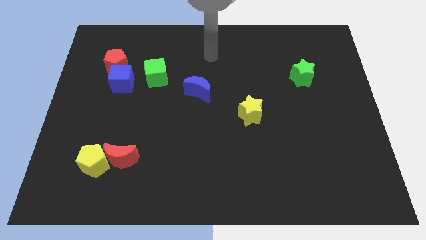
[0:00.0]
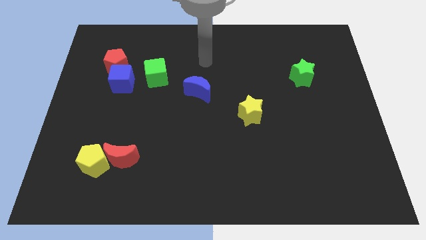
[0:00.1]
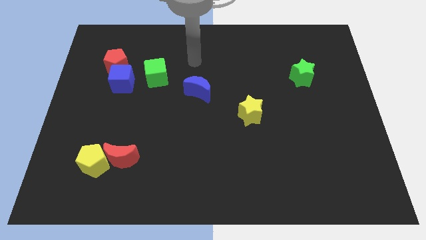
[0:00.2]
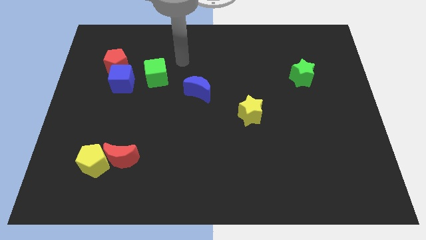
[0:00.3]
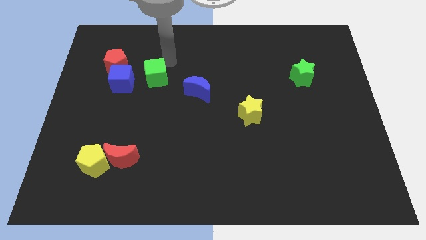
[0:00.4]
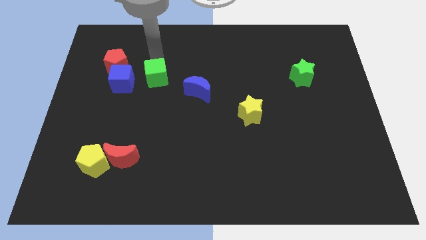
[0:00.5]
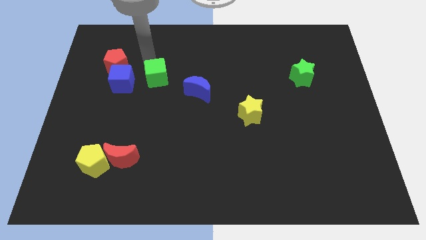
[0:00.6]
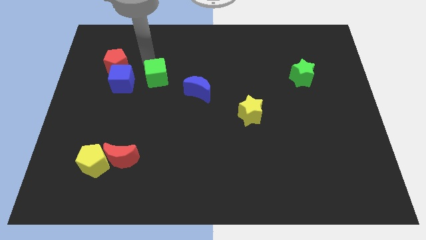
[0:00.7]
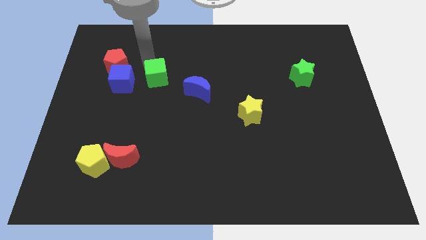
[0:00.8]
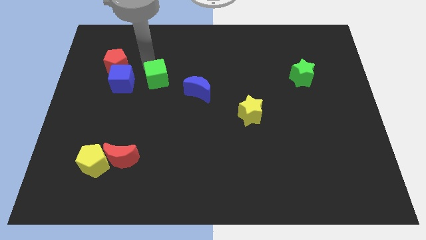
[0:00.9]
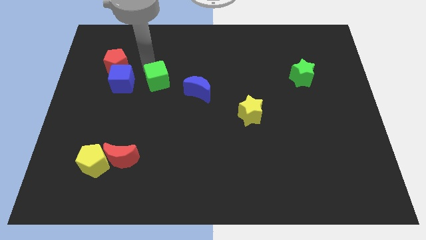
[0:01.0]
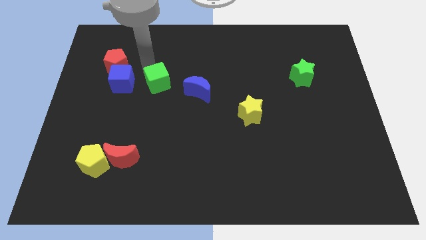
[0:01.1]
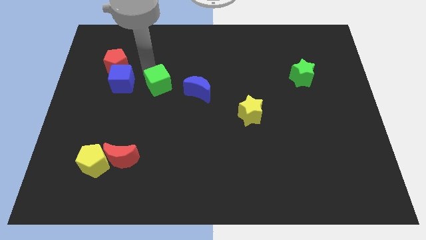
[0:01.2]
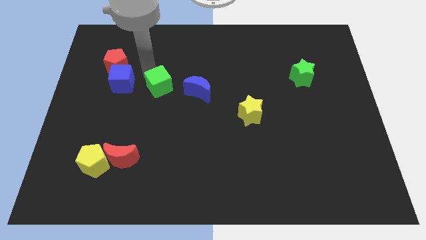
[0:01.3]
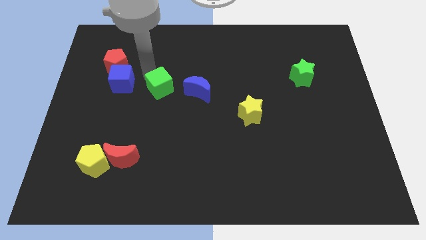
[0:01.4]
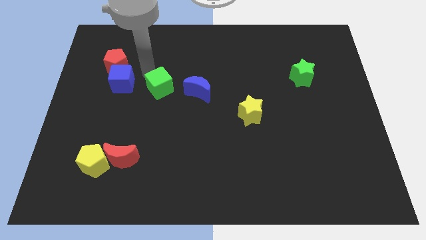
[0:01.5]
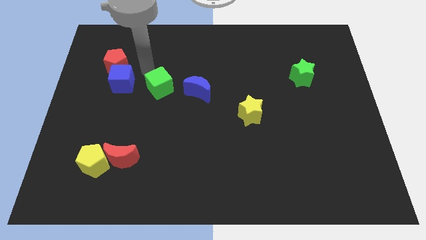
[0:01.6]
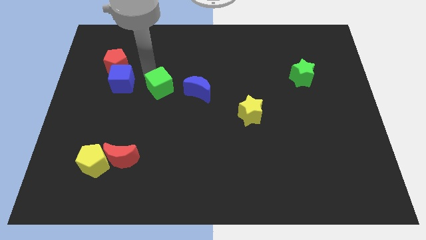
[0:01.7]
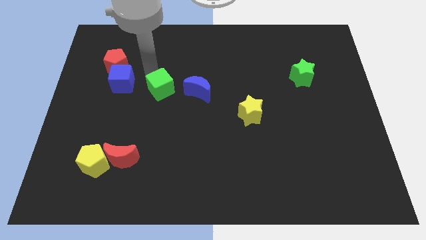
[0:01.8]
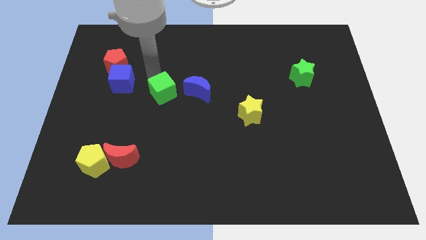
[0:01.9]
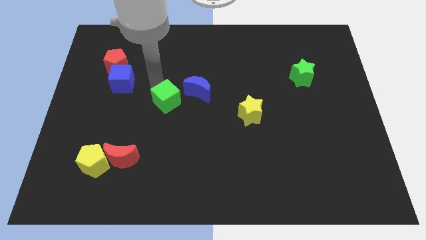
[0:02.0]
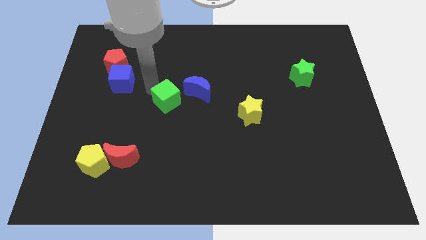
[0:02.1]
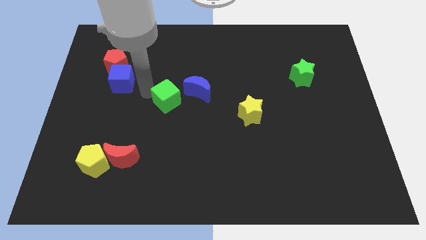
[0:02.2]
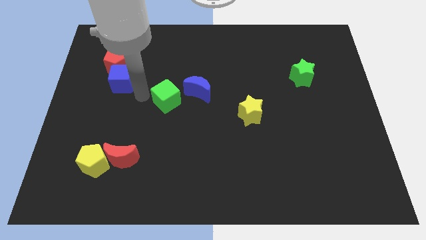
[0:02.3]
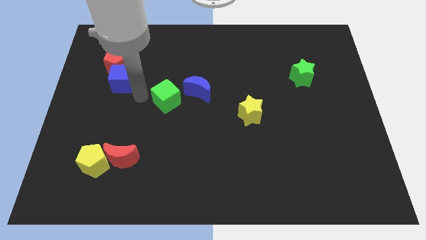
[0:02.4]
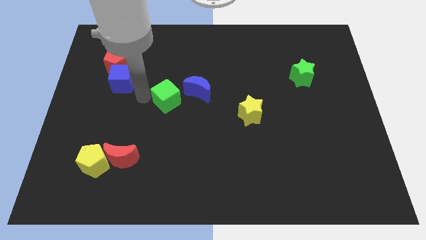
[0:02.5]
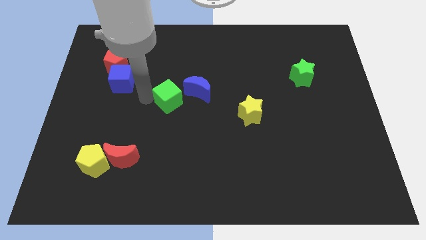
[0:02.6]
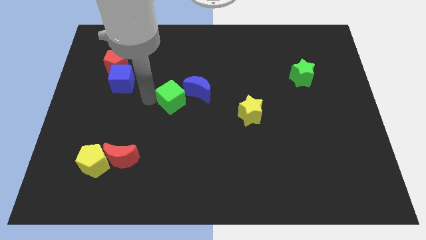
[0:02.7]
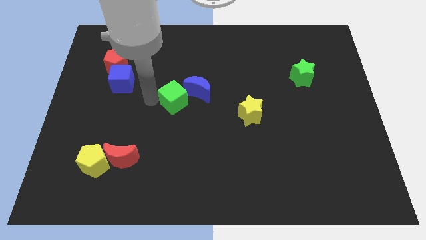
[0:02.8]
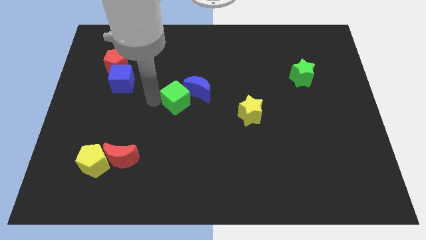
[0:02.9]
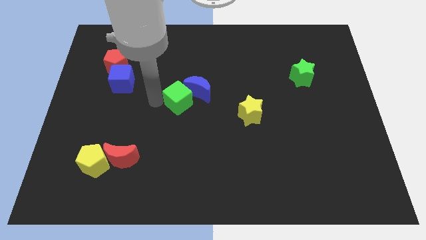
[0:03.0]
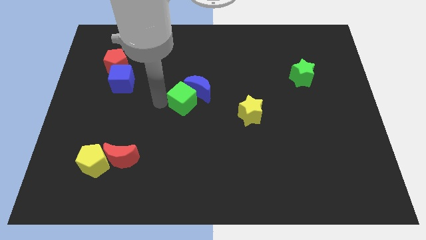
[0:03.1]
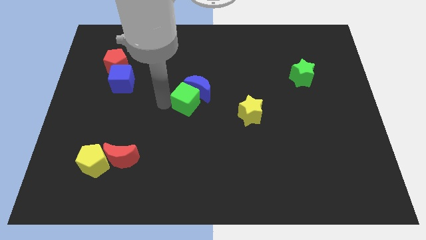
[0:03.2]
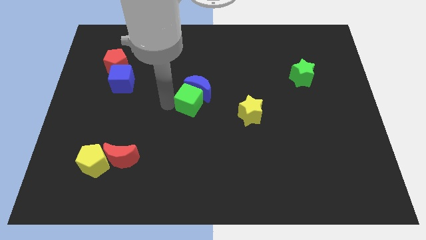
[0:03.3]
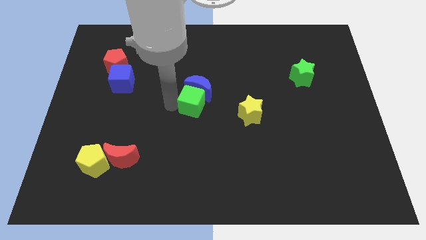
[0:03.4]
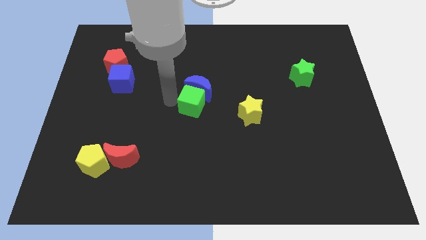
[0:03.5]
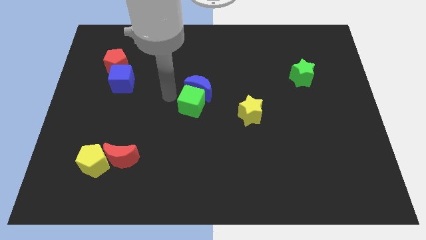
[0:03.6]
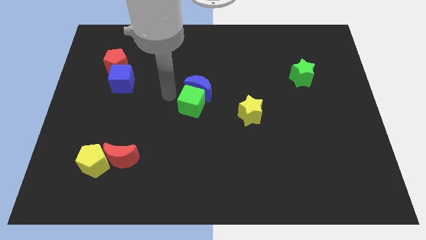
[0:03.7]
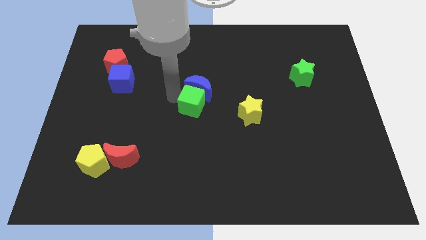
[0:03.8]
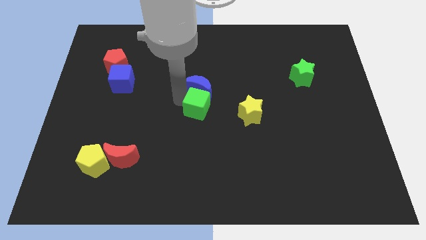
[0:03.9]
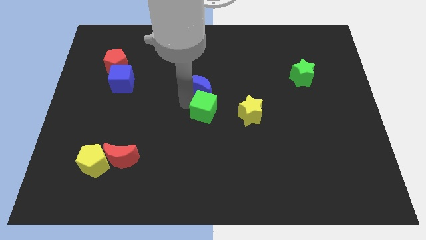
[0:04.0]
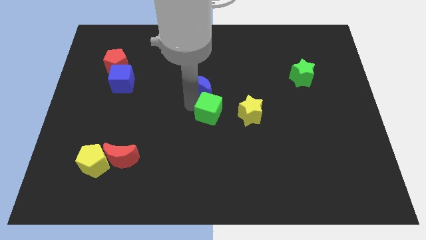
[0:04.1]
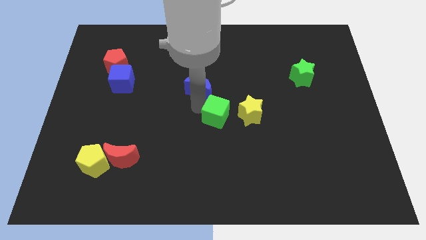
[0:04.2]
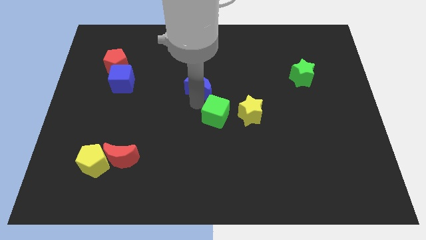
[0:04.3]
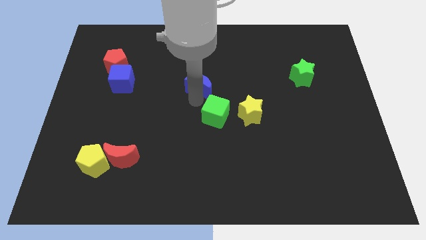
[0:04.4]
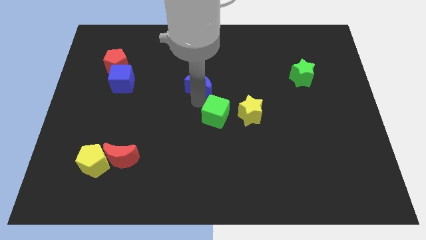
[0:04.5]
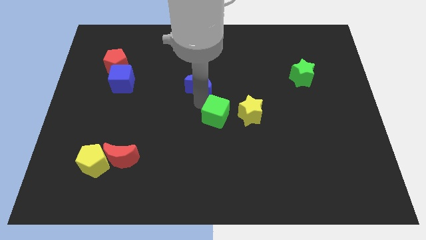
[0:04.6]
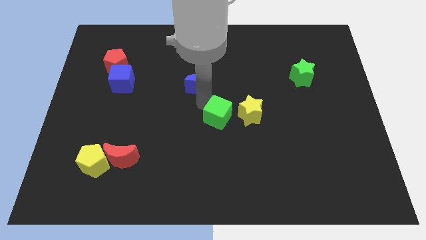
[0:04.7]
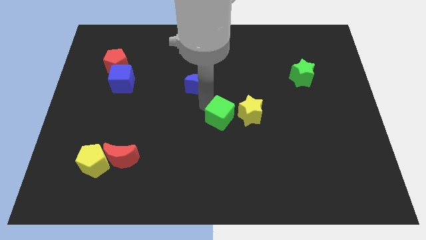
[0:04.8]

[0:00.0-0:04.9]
move the green cube down and right diagonally

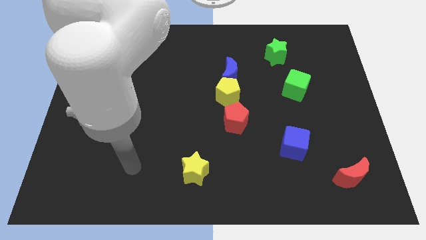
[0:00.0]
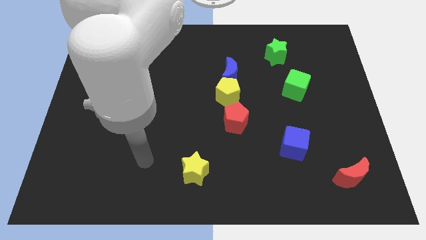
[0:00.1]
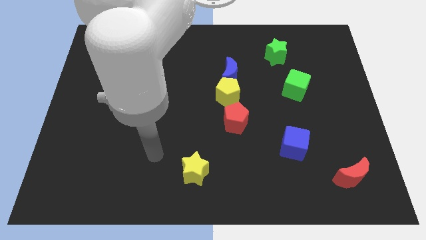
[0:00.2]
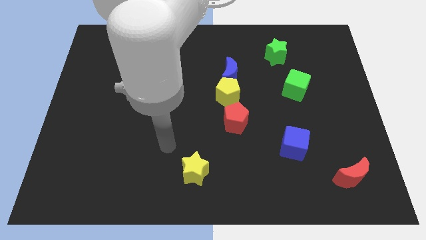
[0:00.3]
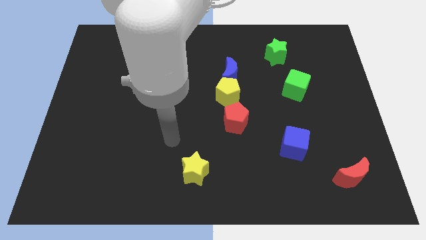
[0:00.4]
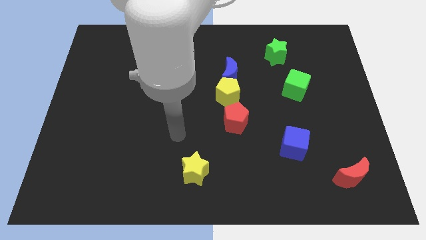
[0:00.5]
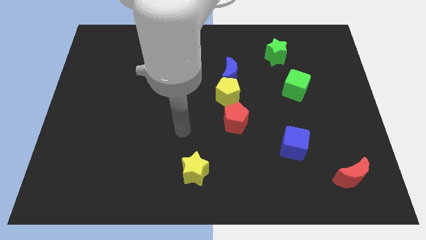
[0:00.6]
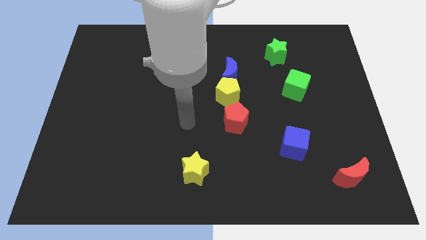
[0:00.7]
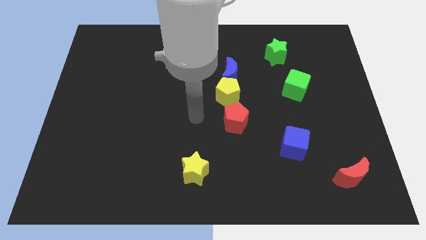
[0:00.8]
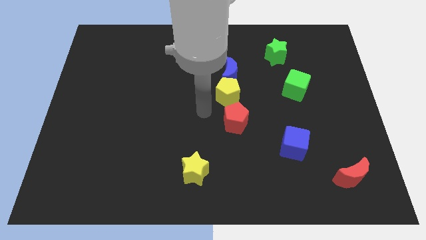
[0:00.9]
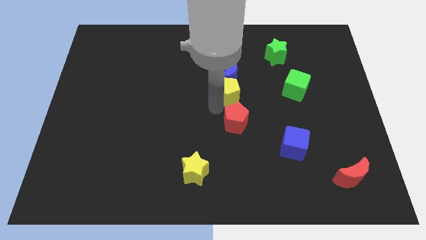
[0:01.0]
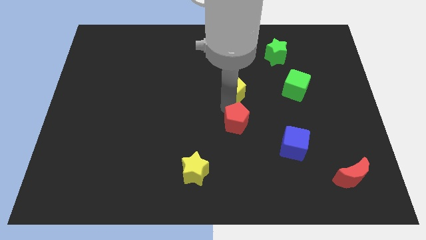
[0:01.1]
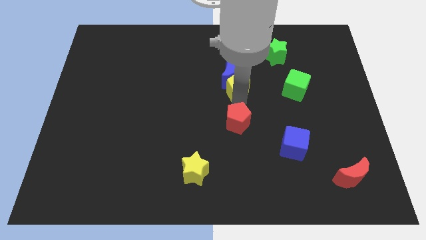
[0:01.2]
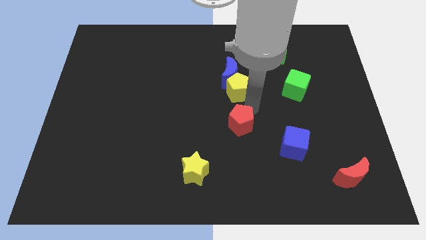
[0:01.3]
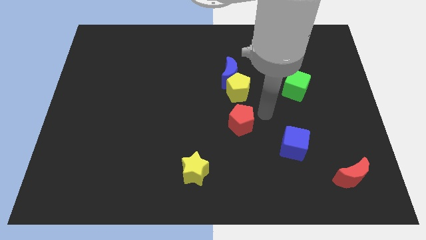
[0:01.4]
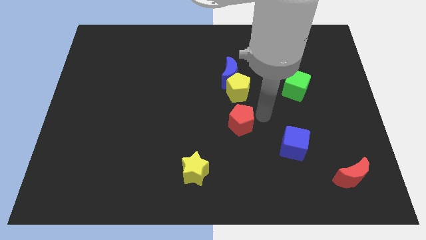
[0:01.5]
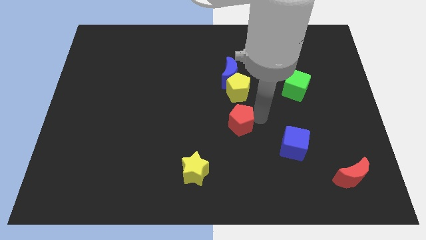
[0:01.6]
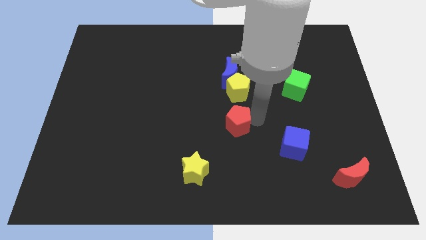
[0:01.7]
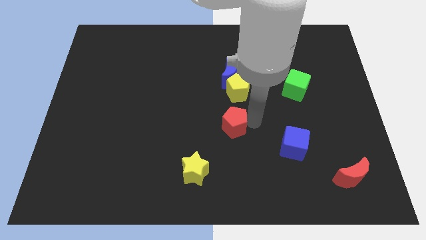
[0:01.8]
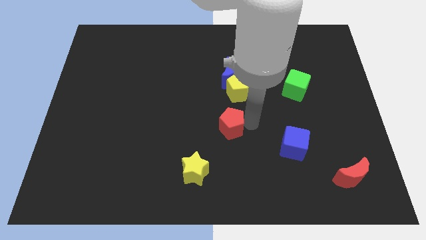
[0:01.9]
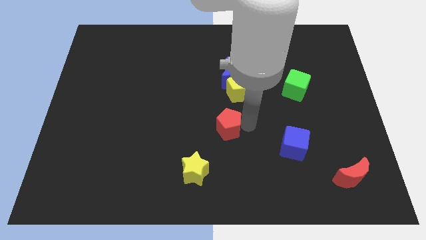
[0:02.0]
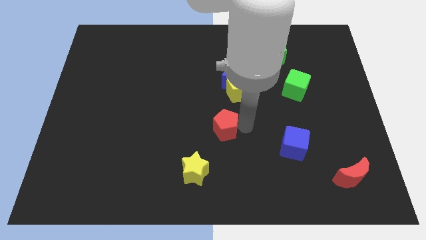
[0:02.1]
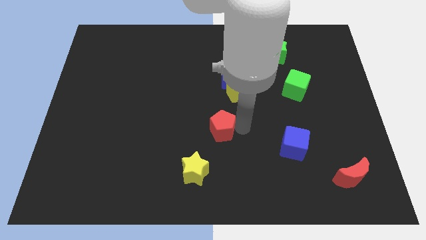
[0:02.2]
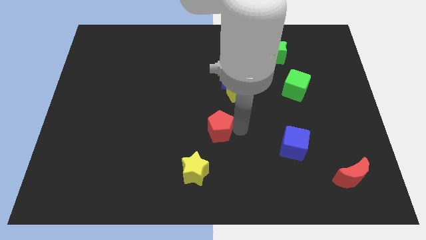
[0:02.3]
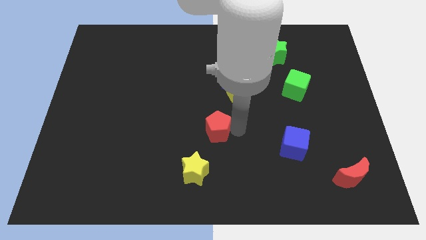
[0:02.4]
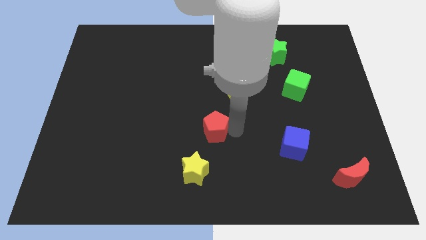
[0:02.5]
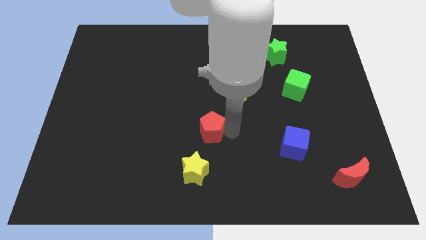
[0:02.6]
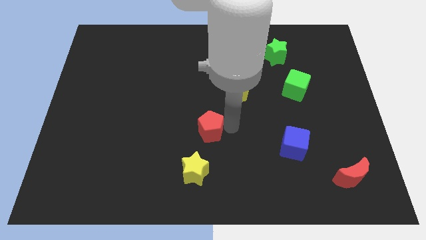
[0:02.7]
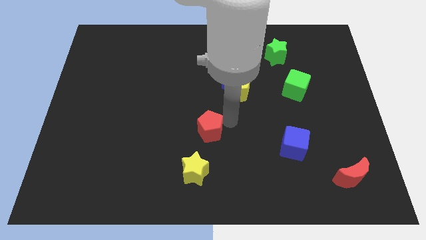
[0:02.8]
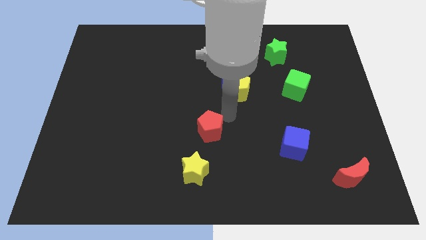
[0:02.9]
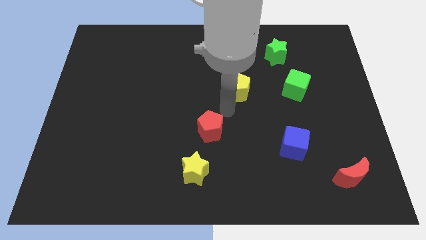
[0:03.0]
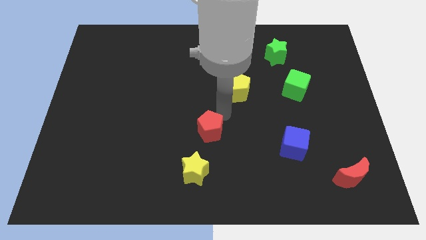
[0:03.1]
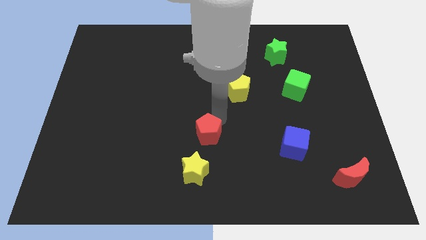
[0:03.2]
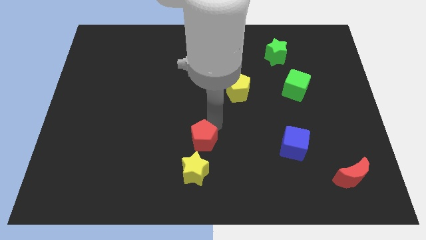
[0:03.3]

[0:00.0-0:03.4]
push the red pentagon downwards and to the left diagonally a bit
